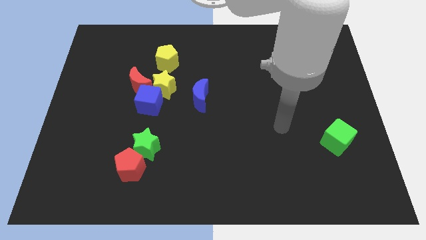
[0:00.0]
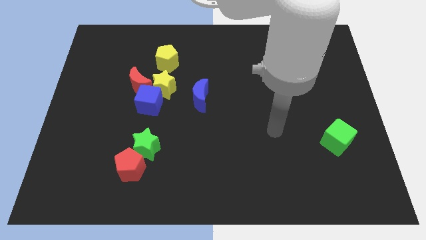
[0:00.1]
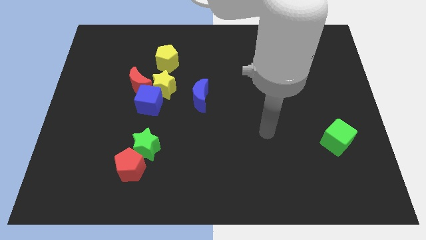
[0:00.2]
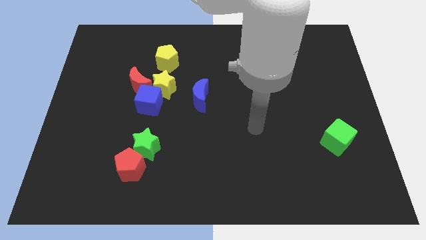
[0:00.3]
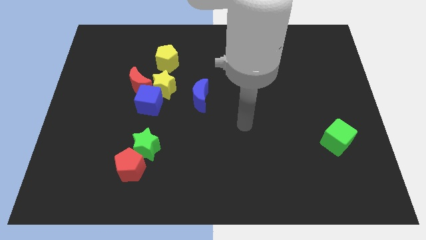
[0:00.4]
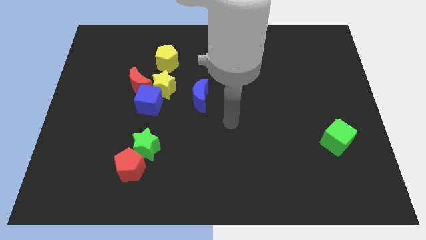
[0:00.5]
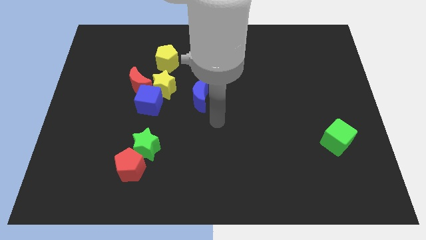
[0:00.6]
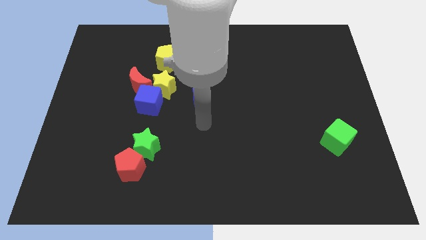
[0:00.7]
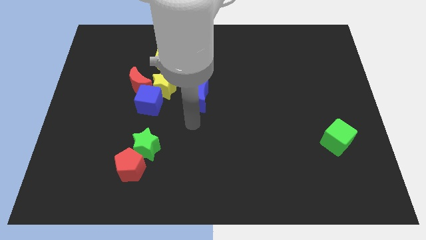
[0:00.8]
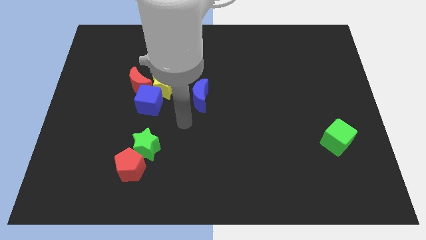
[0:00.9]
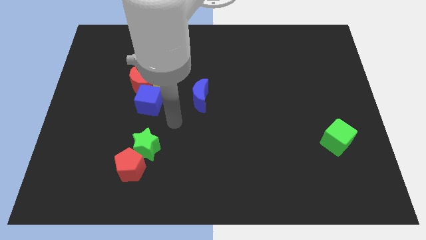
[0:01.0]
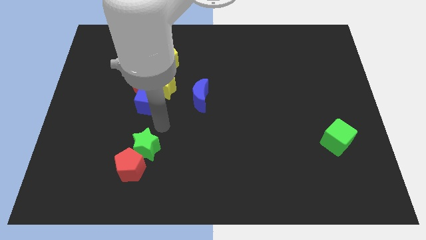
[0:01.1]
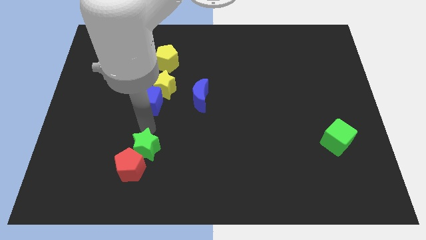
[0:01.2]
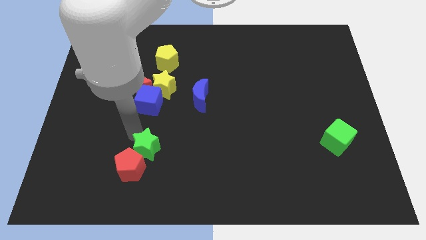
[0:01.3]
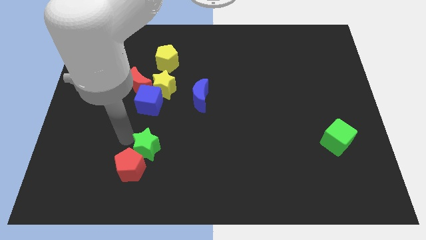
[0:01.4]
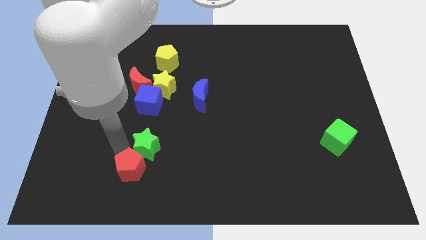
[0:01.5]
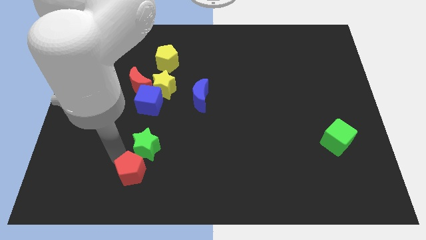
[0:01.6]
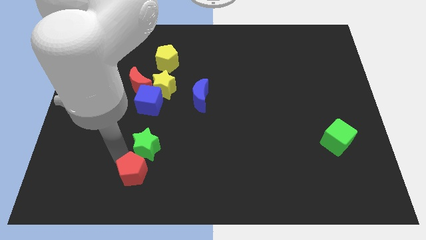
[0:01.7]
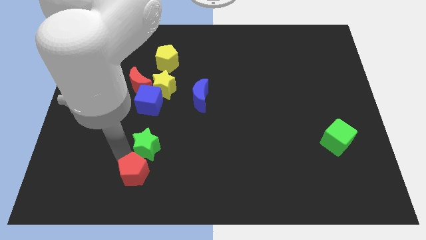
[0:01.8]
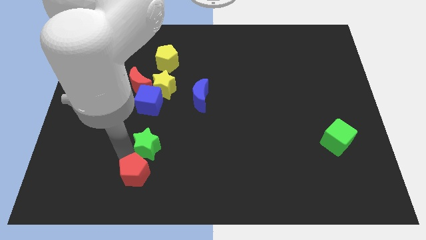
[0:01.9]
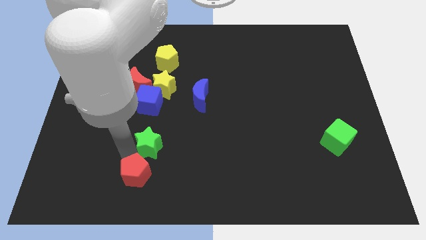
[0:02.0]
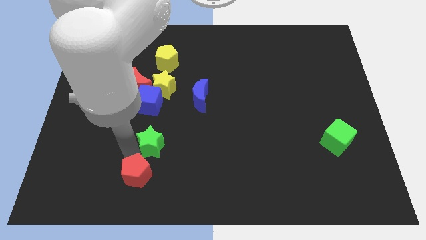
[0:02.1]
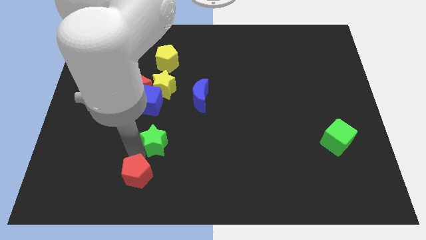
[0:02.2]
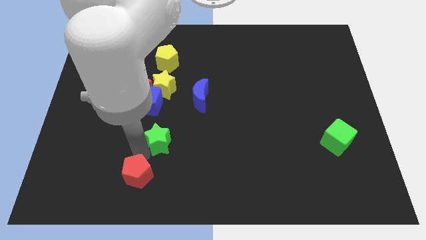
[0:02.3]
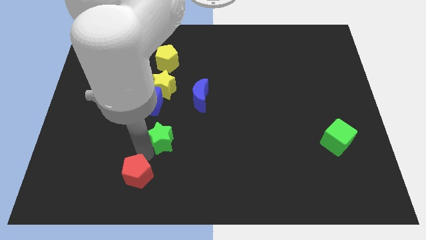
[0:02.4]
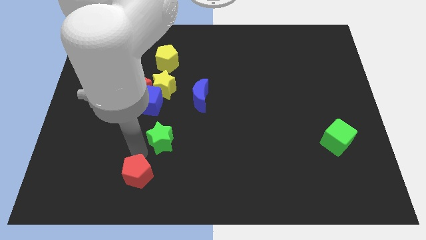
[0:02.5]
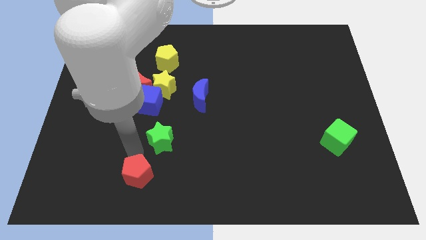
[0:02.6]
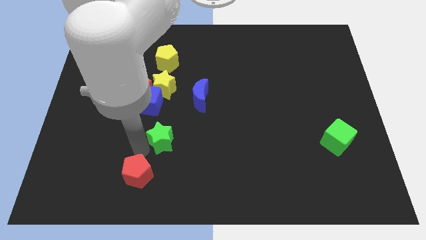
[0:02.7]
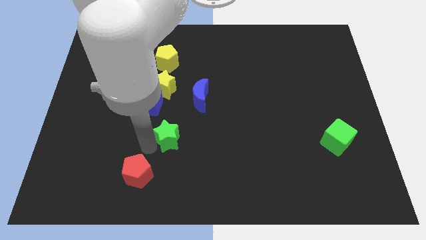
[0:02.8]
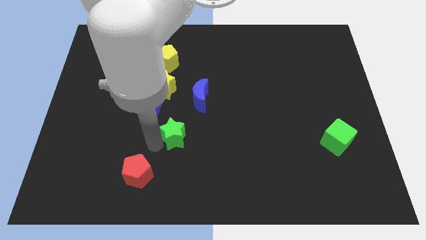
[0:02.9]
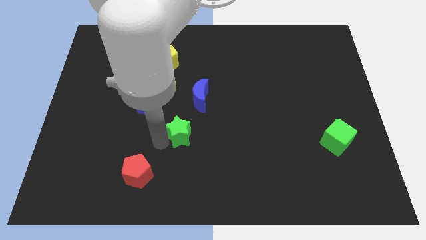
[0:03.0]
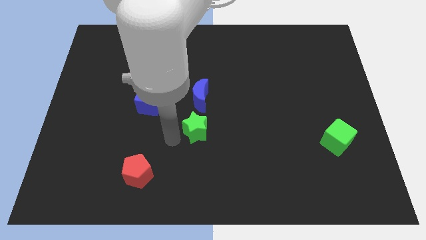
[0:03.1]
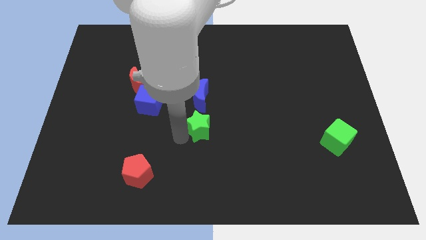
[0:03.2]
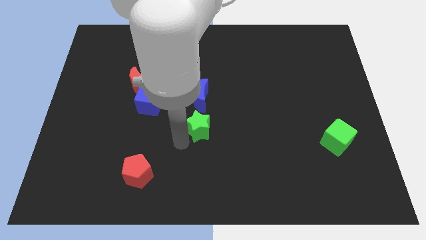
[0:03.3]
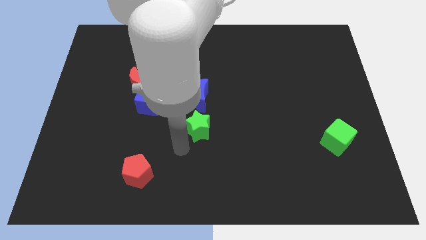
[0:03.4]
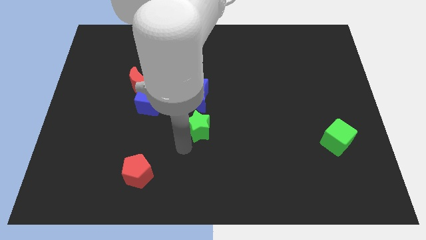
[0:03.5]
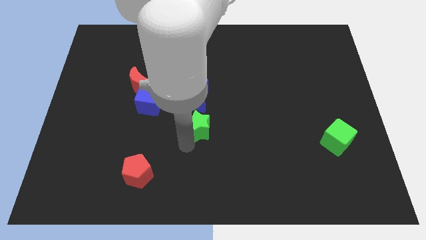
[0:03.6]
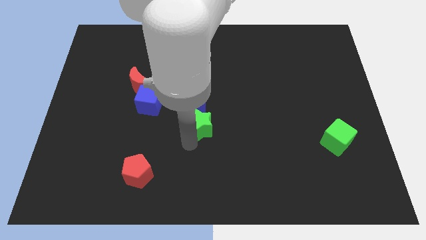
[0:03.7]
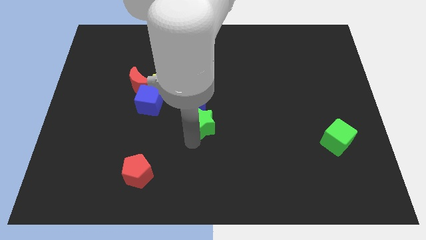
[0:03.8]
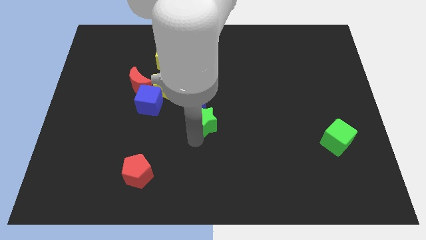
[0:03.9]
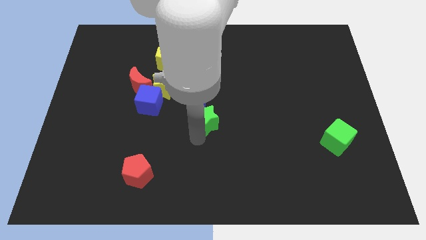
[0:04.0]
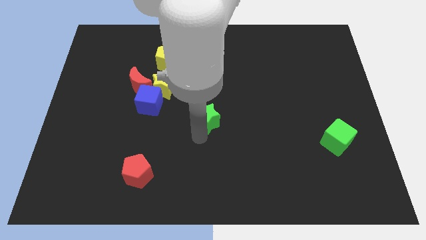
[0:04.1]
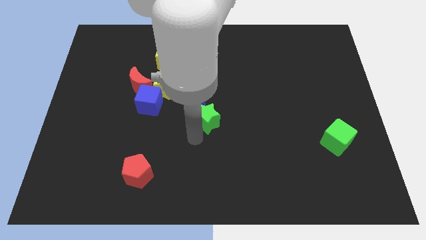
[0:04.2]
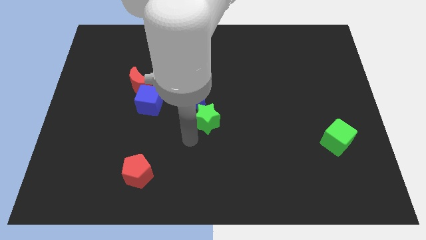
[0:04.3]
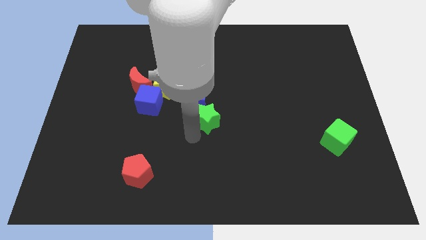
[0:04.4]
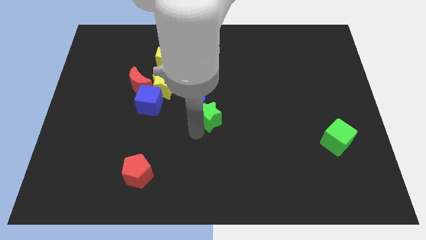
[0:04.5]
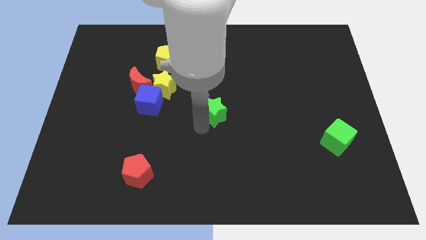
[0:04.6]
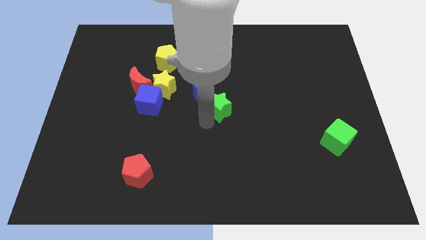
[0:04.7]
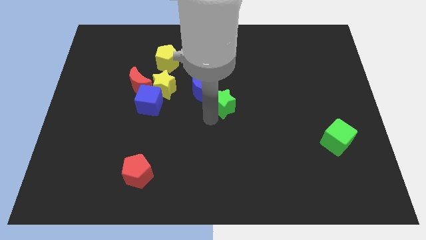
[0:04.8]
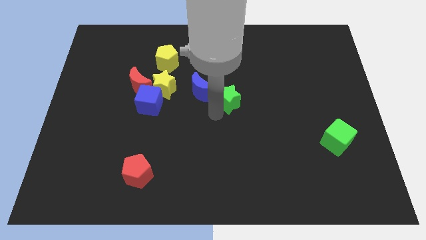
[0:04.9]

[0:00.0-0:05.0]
move the green star up and then to the right

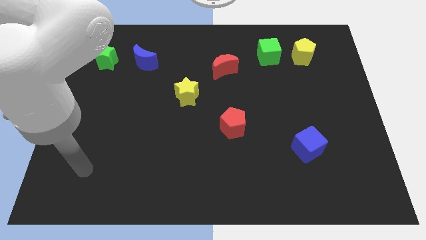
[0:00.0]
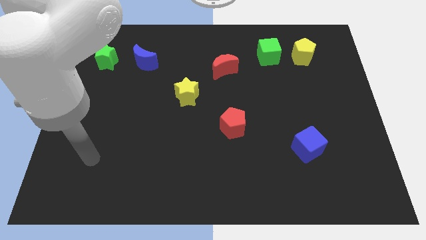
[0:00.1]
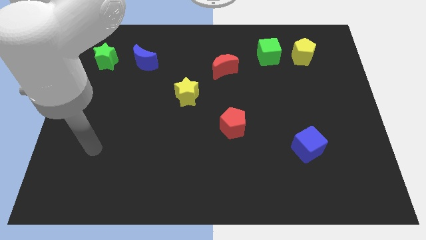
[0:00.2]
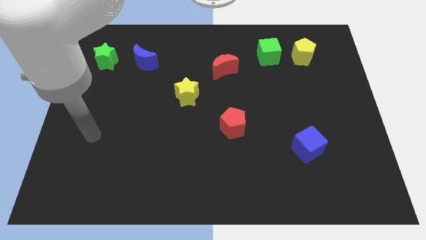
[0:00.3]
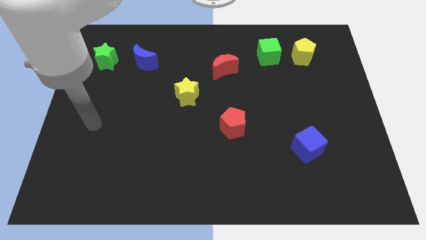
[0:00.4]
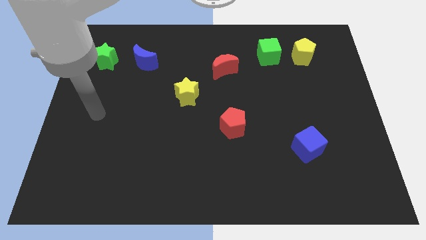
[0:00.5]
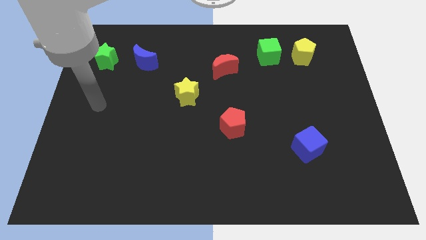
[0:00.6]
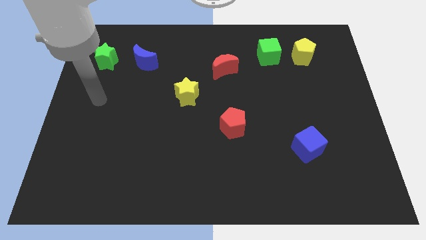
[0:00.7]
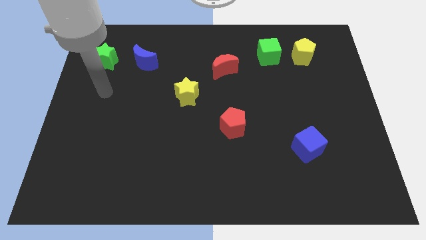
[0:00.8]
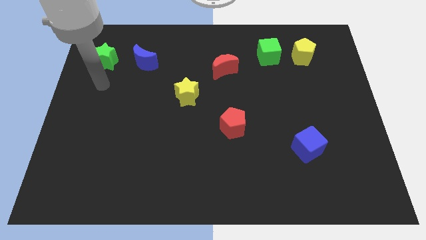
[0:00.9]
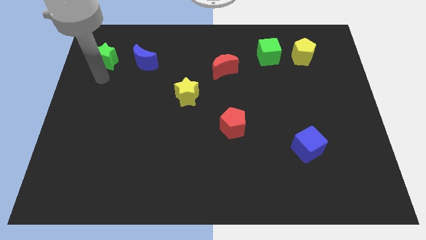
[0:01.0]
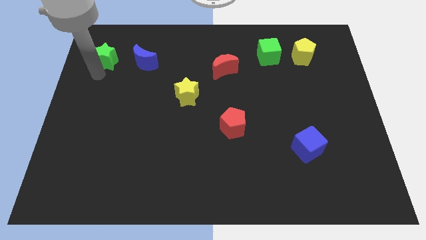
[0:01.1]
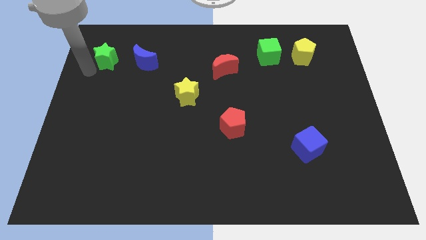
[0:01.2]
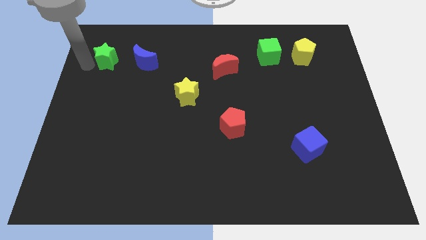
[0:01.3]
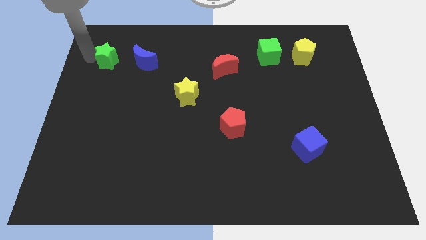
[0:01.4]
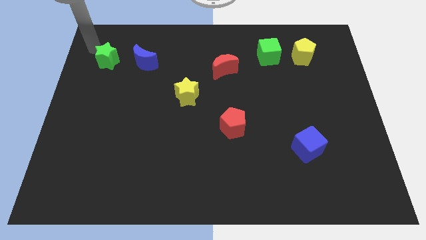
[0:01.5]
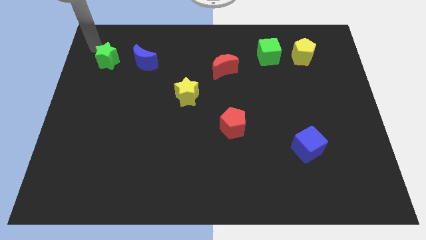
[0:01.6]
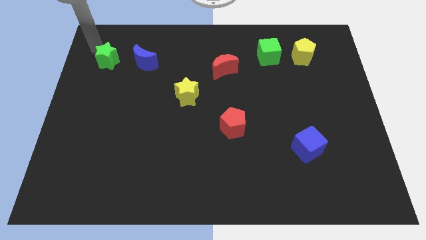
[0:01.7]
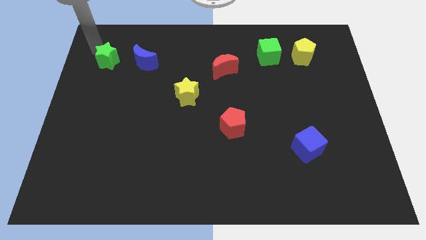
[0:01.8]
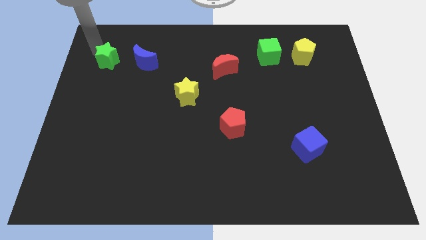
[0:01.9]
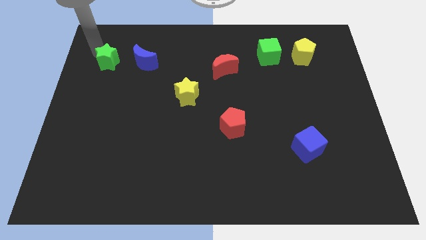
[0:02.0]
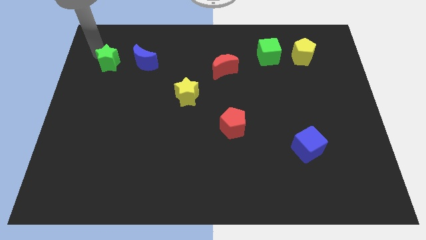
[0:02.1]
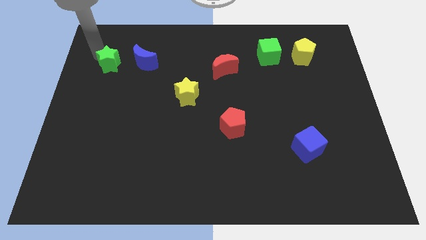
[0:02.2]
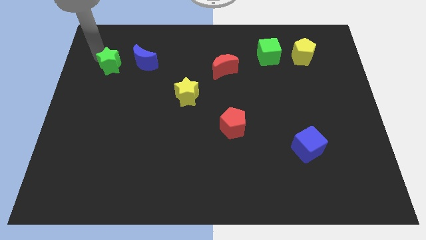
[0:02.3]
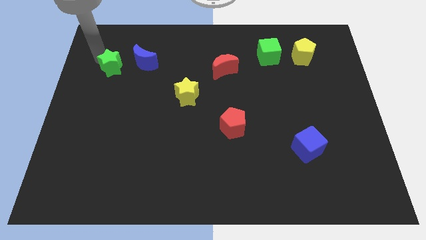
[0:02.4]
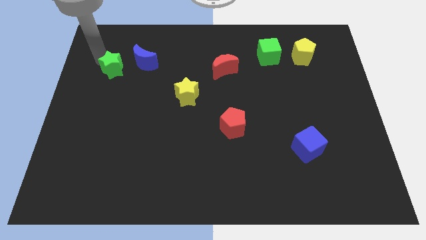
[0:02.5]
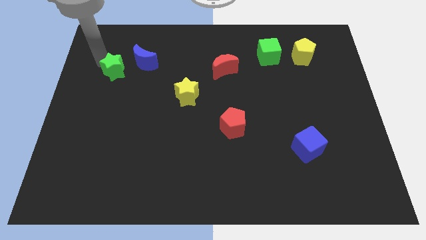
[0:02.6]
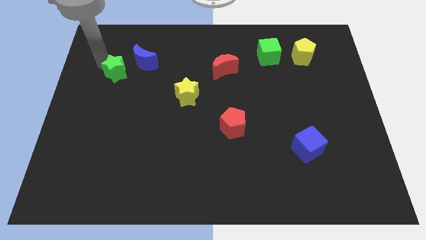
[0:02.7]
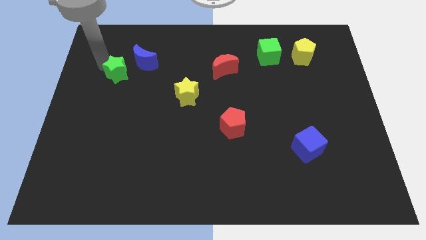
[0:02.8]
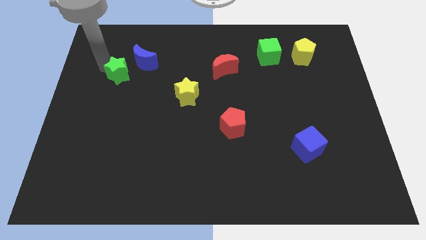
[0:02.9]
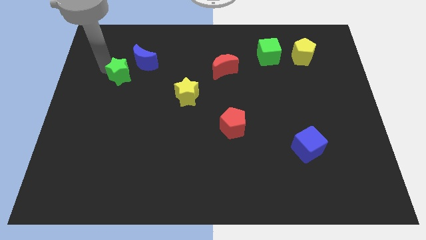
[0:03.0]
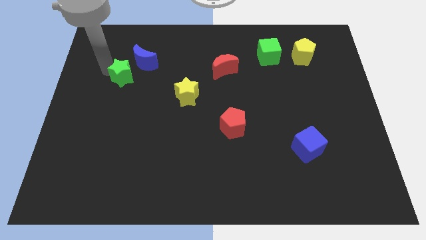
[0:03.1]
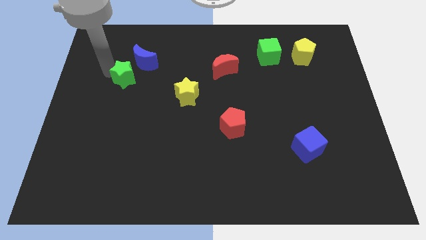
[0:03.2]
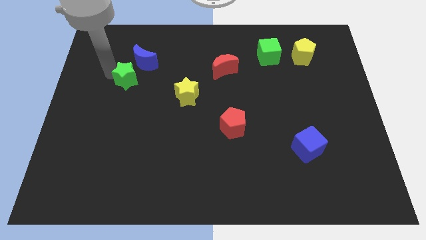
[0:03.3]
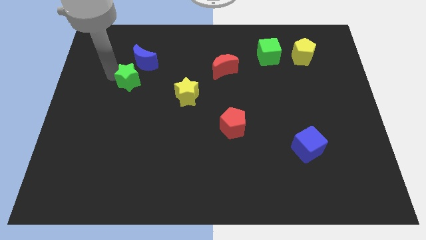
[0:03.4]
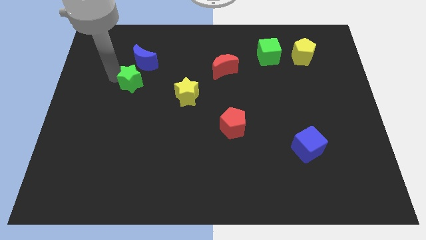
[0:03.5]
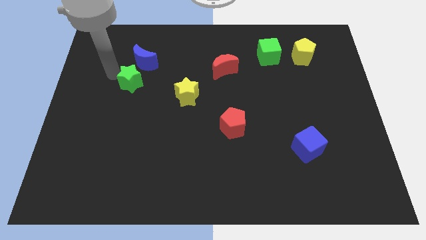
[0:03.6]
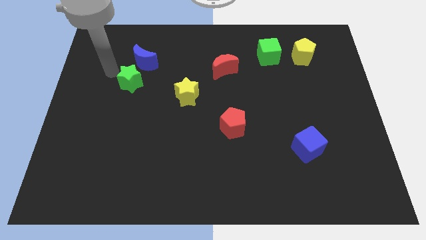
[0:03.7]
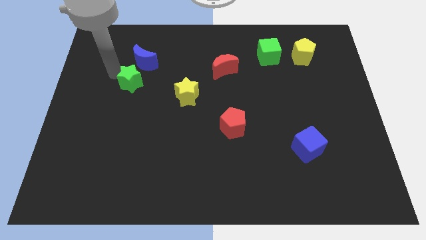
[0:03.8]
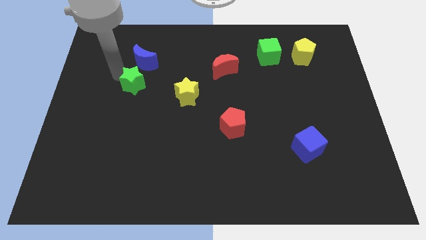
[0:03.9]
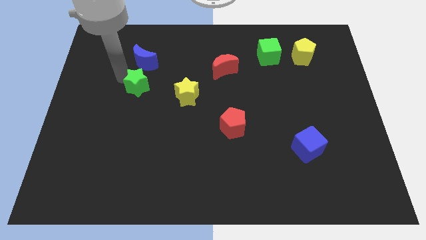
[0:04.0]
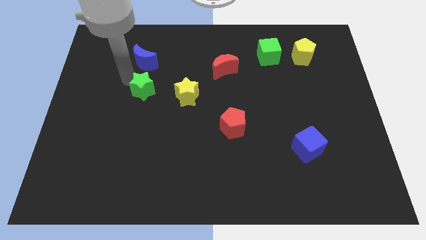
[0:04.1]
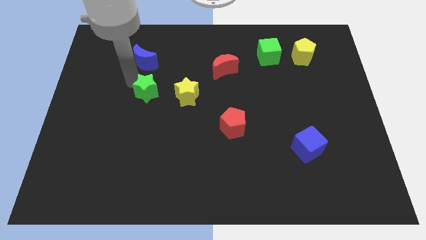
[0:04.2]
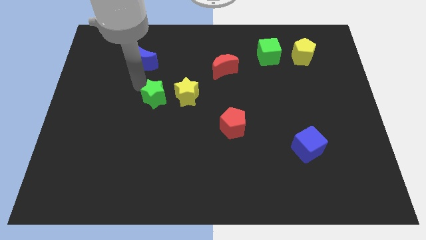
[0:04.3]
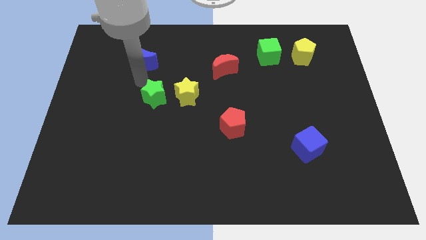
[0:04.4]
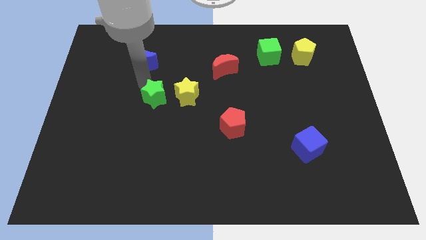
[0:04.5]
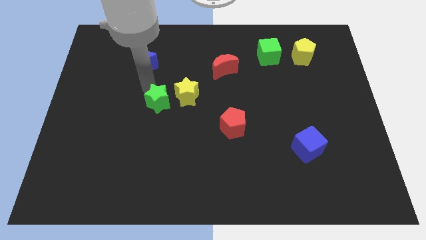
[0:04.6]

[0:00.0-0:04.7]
push the green star diagonally downwards and right
